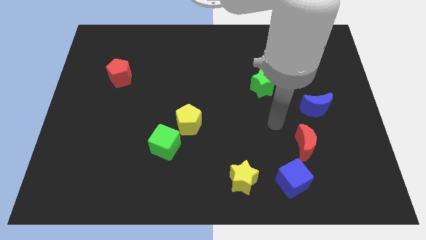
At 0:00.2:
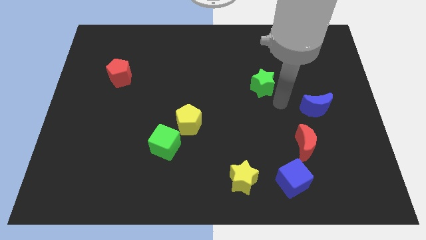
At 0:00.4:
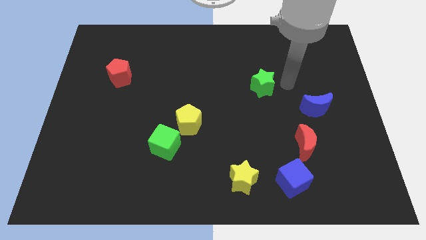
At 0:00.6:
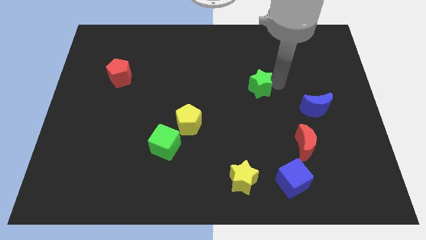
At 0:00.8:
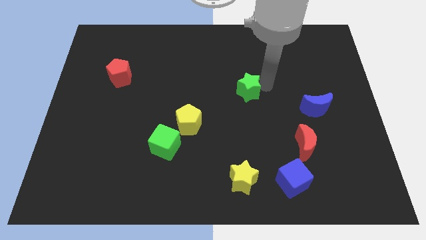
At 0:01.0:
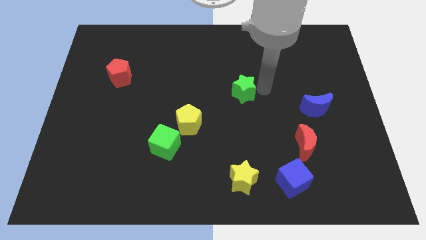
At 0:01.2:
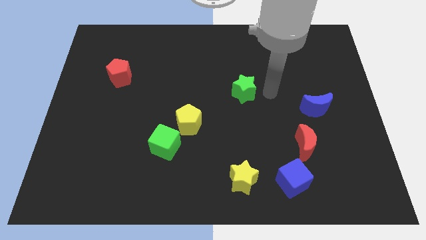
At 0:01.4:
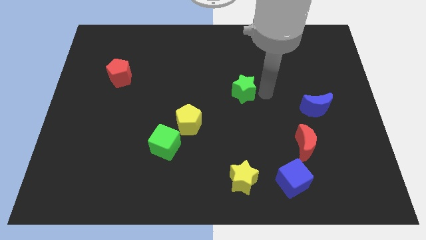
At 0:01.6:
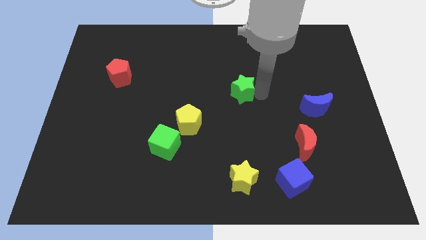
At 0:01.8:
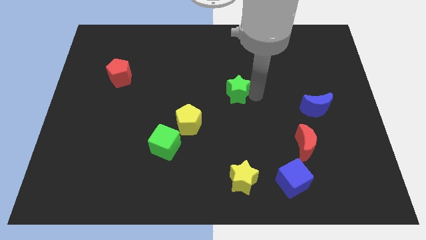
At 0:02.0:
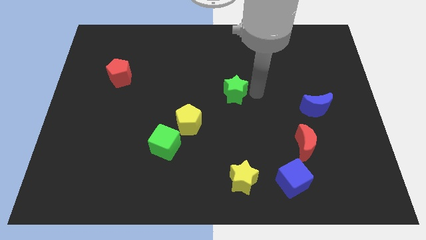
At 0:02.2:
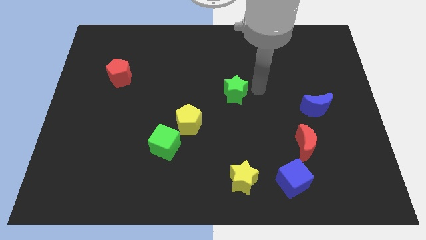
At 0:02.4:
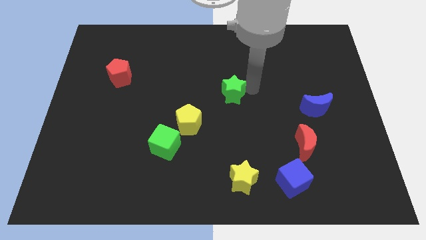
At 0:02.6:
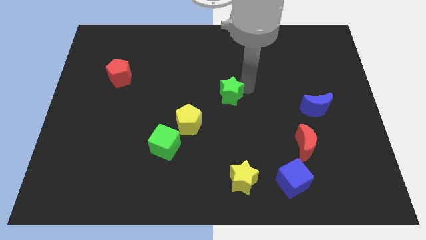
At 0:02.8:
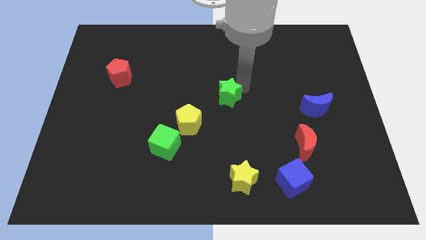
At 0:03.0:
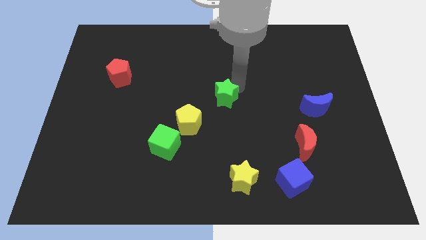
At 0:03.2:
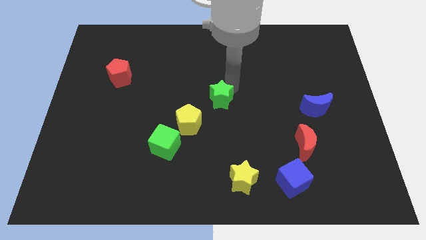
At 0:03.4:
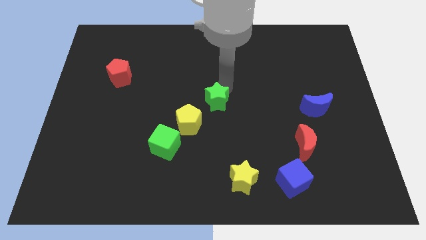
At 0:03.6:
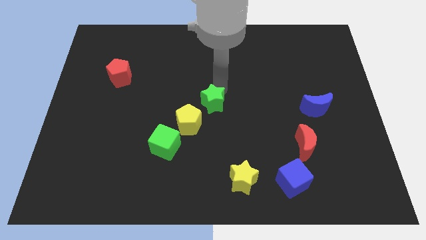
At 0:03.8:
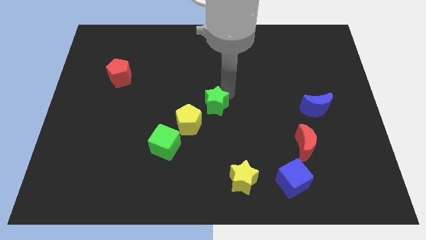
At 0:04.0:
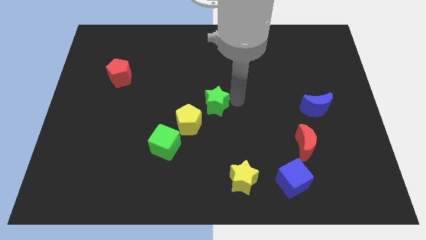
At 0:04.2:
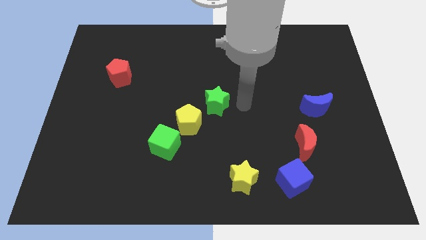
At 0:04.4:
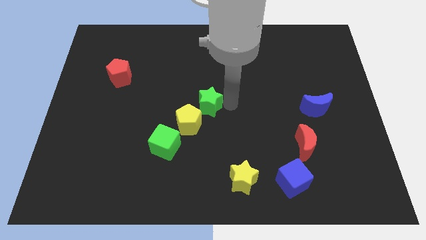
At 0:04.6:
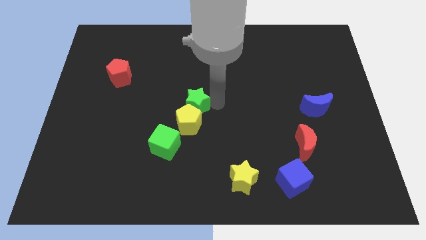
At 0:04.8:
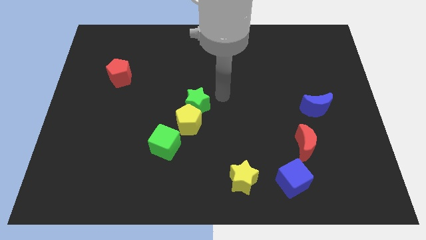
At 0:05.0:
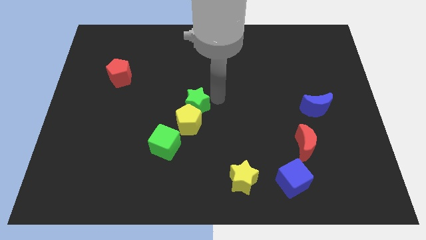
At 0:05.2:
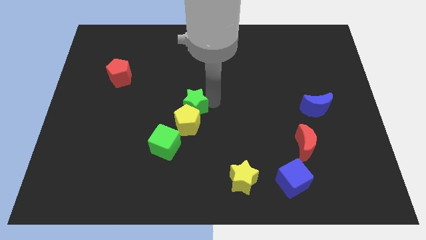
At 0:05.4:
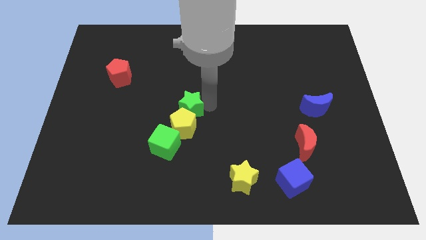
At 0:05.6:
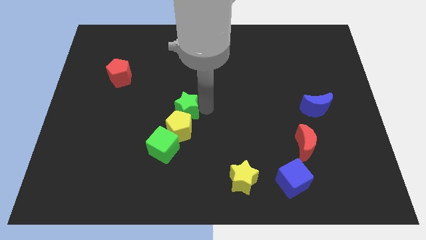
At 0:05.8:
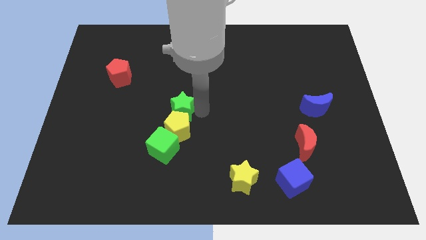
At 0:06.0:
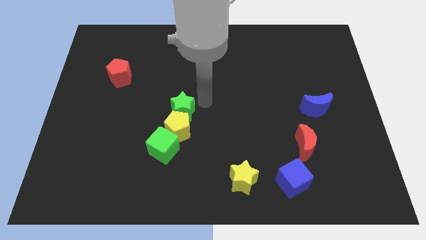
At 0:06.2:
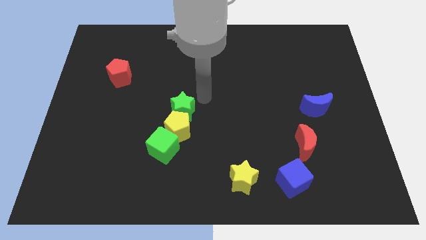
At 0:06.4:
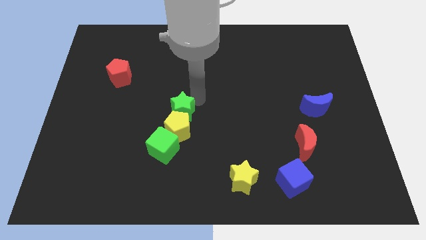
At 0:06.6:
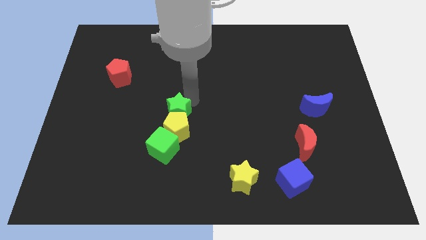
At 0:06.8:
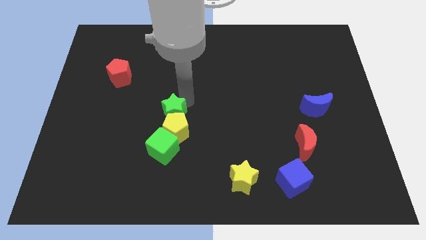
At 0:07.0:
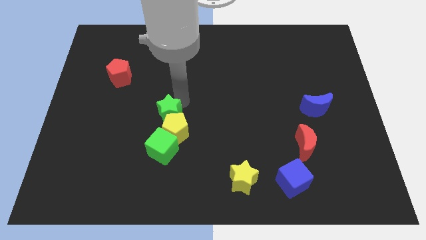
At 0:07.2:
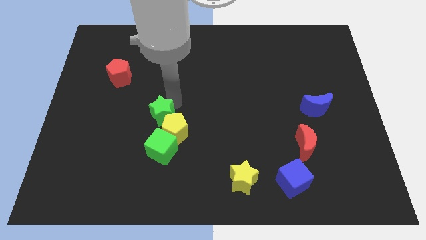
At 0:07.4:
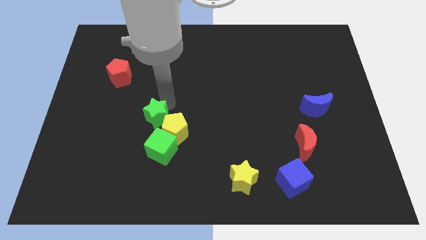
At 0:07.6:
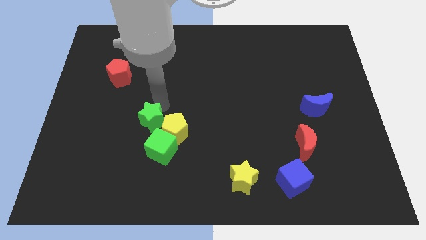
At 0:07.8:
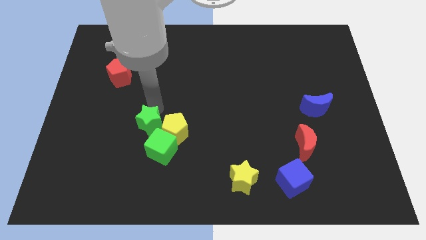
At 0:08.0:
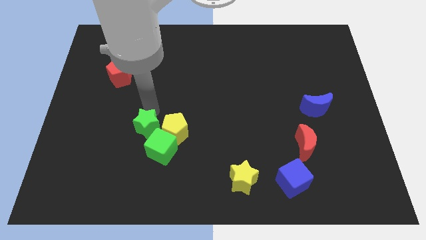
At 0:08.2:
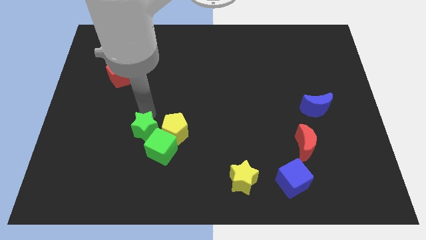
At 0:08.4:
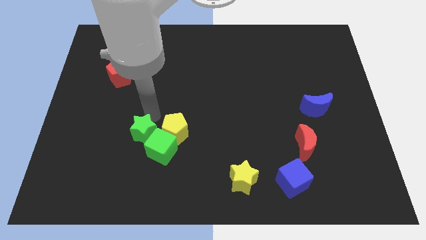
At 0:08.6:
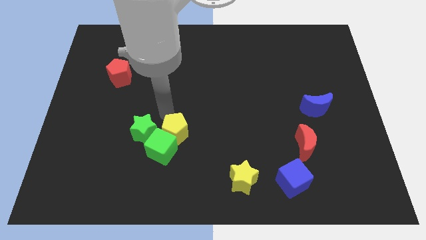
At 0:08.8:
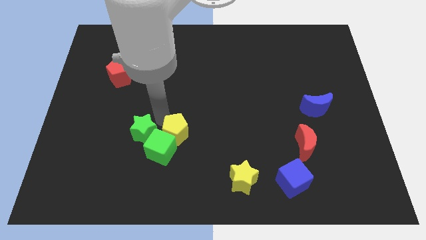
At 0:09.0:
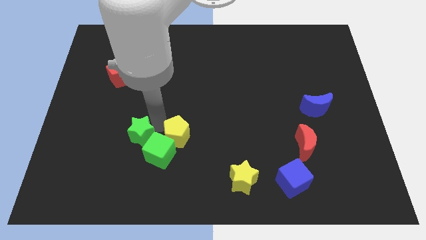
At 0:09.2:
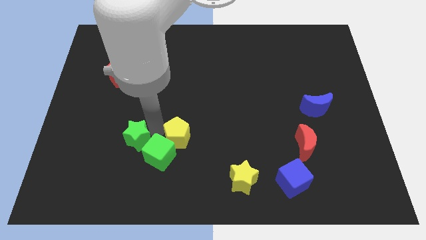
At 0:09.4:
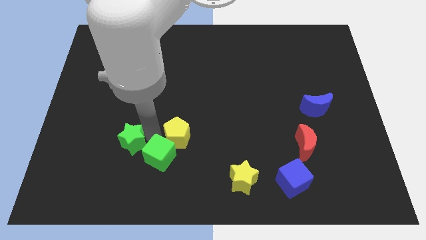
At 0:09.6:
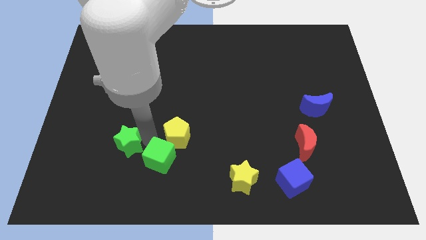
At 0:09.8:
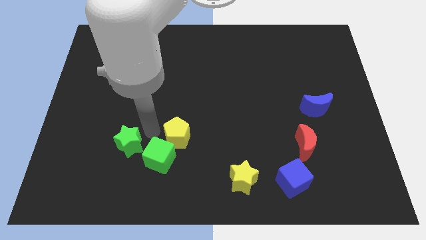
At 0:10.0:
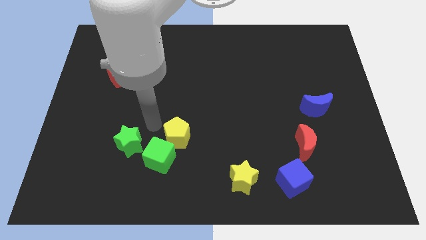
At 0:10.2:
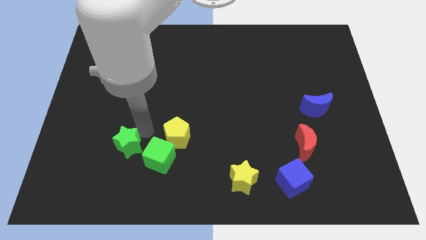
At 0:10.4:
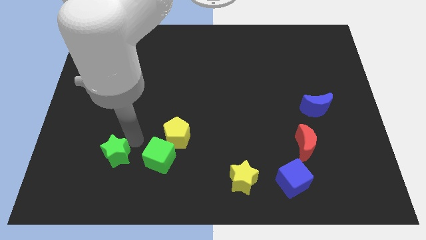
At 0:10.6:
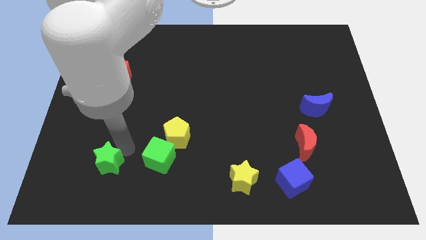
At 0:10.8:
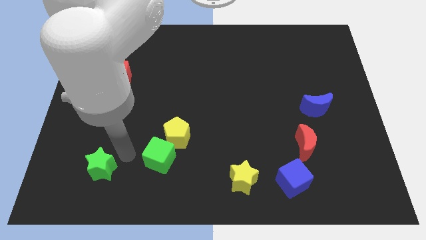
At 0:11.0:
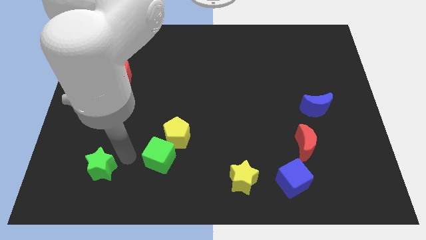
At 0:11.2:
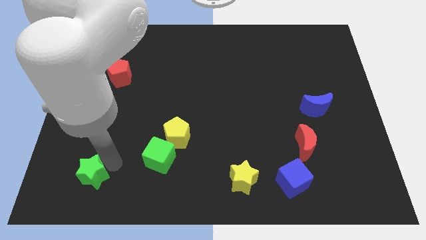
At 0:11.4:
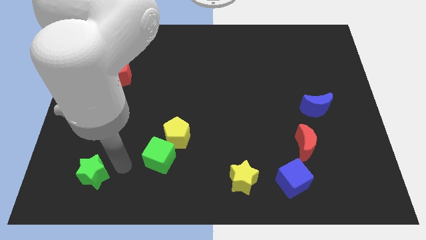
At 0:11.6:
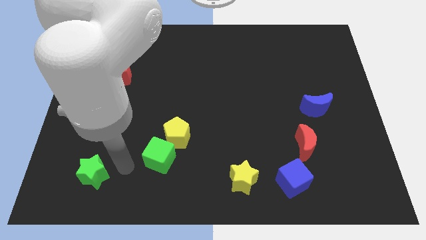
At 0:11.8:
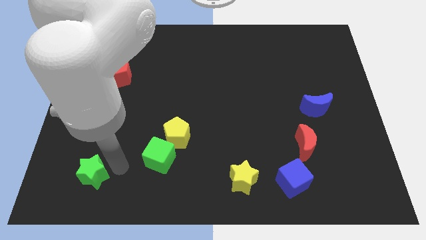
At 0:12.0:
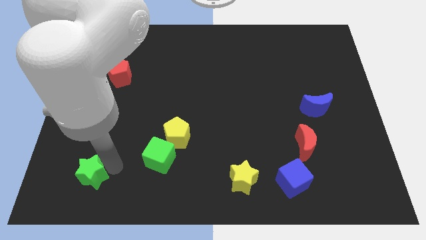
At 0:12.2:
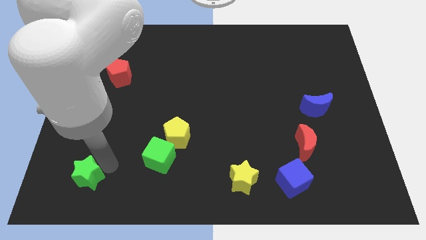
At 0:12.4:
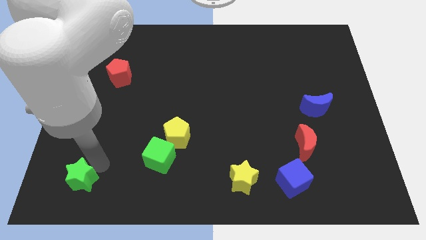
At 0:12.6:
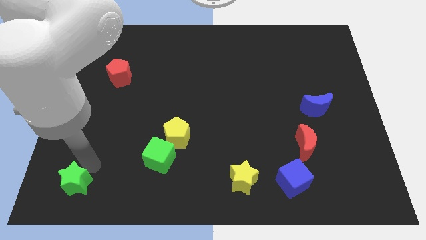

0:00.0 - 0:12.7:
push the green star to the lower left corner

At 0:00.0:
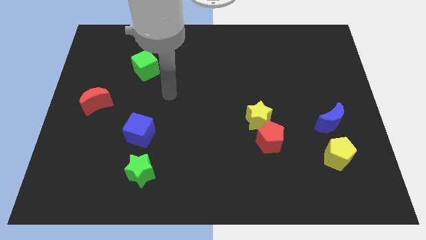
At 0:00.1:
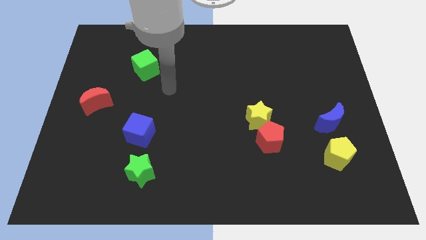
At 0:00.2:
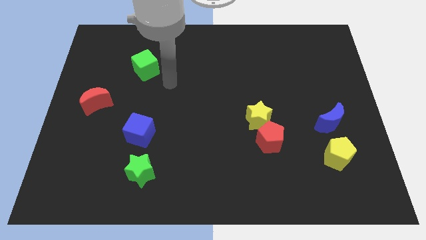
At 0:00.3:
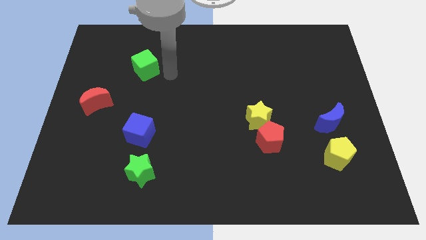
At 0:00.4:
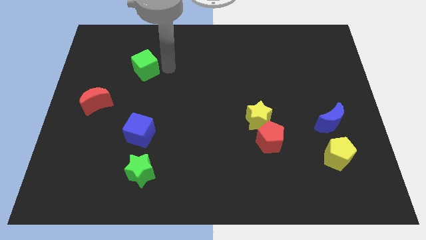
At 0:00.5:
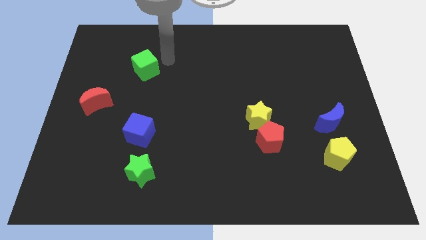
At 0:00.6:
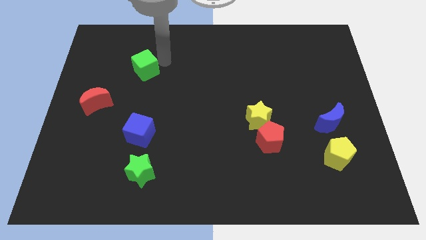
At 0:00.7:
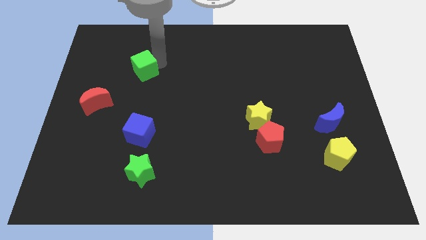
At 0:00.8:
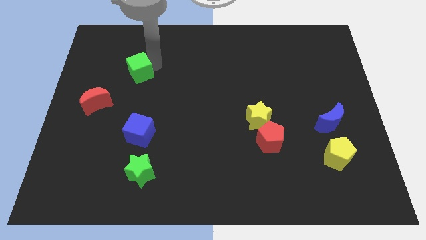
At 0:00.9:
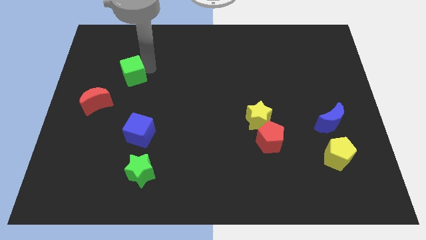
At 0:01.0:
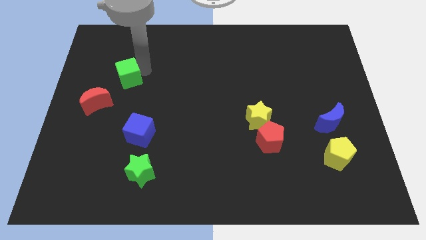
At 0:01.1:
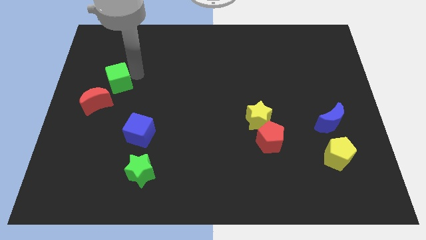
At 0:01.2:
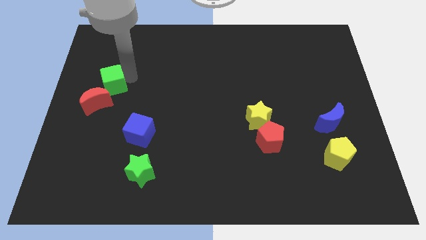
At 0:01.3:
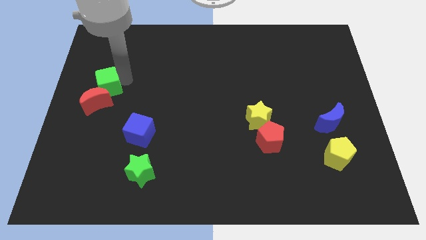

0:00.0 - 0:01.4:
move the green cube to the center left
